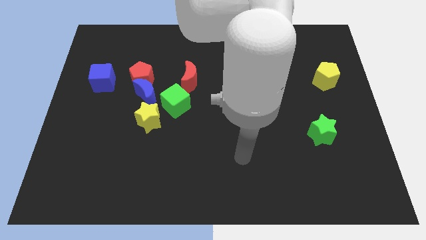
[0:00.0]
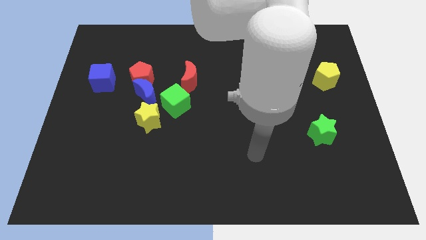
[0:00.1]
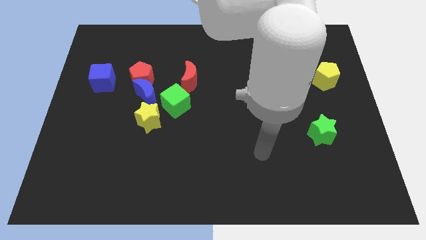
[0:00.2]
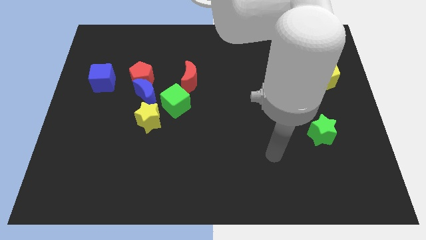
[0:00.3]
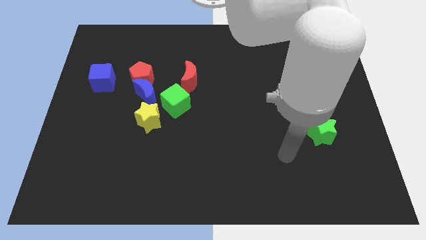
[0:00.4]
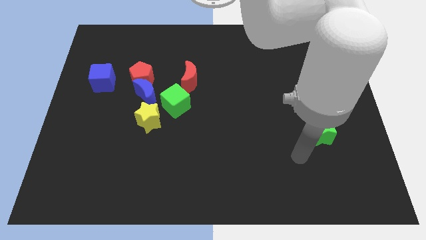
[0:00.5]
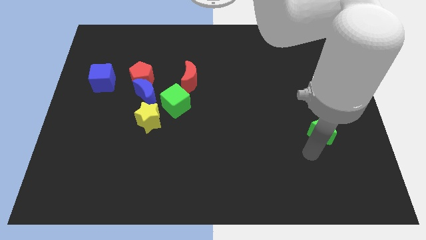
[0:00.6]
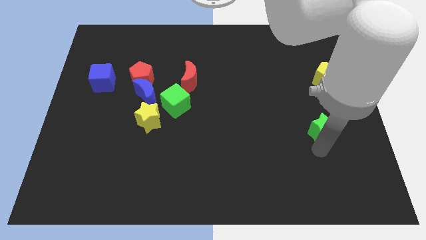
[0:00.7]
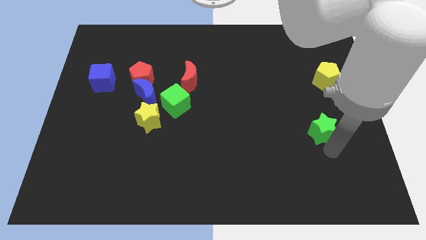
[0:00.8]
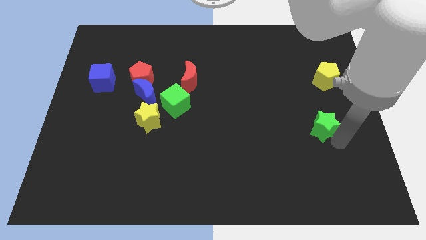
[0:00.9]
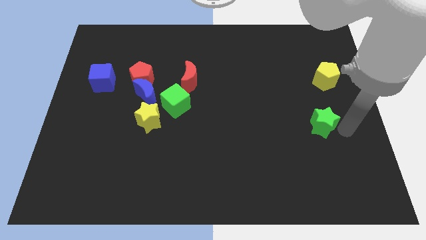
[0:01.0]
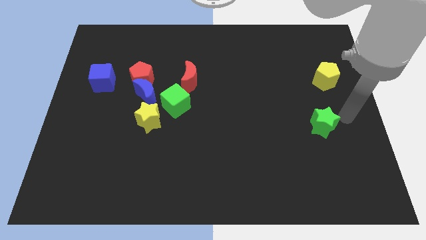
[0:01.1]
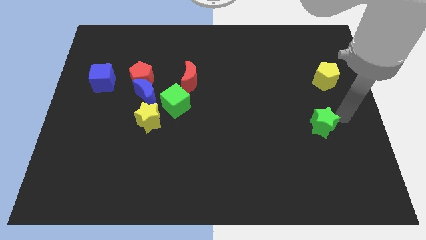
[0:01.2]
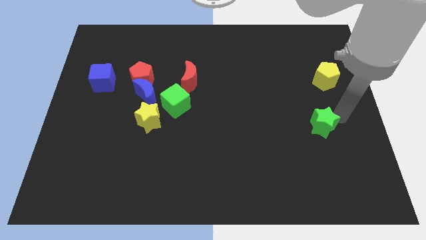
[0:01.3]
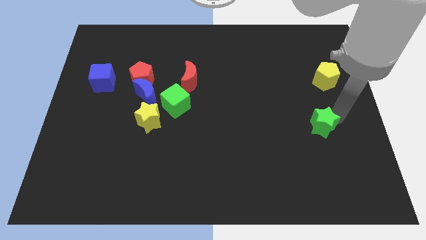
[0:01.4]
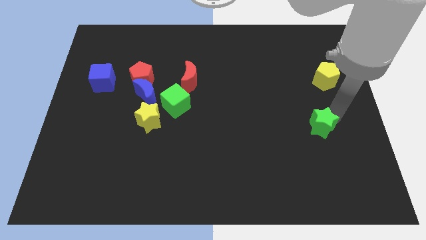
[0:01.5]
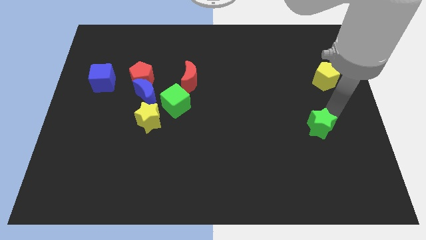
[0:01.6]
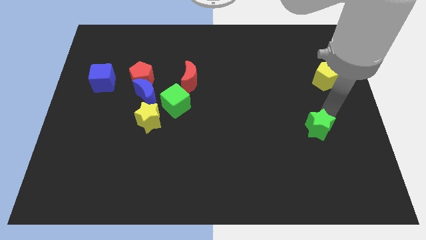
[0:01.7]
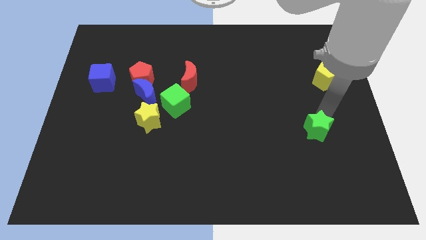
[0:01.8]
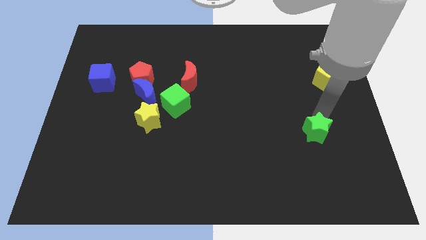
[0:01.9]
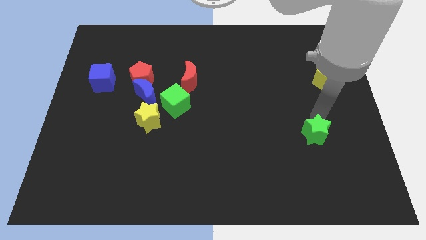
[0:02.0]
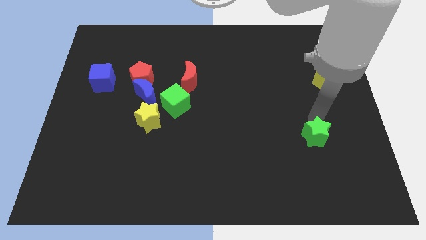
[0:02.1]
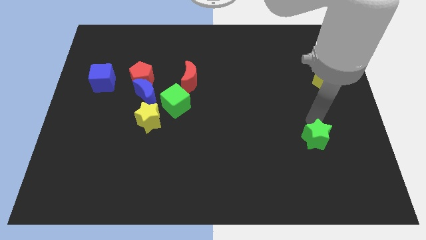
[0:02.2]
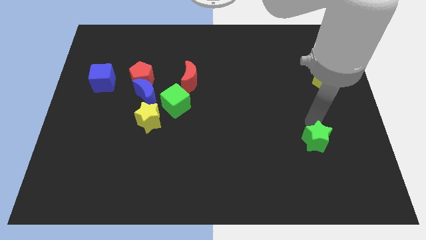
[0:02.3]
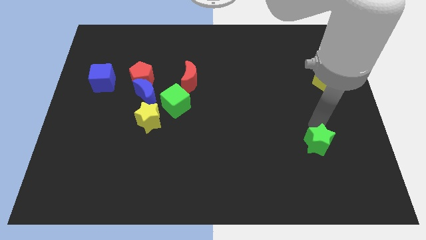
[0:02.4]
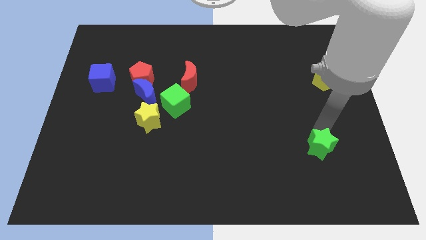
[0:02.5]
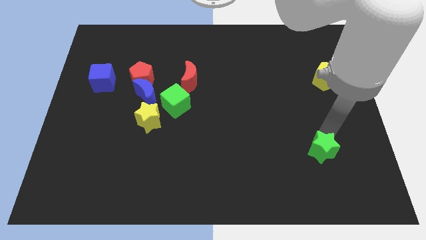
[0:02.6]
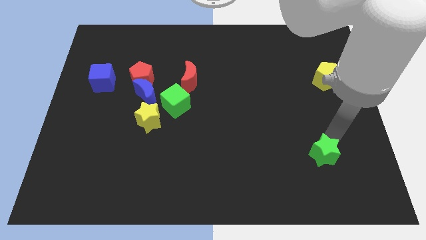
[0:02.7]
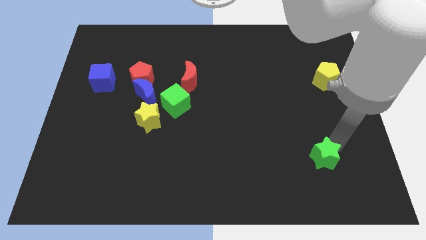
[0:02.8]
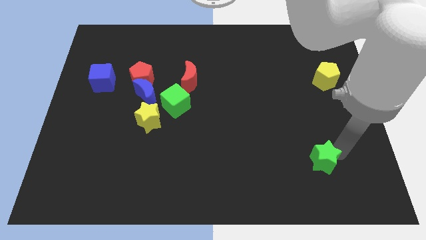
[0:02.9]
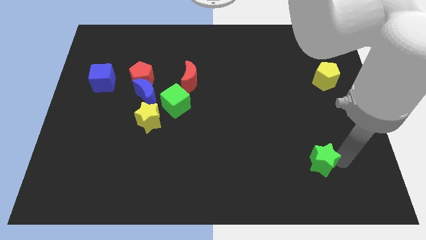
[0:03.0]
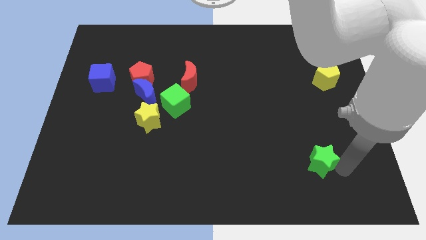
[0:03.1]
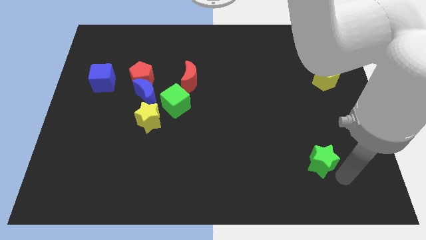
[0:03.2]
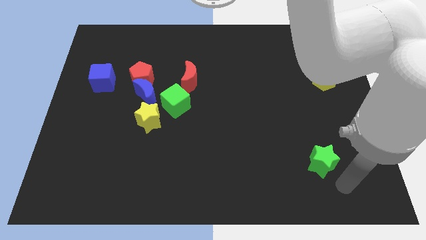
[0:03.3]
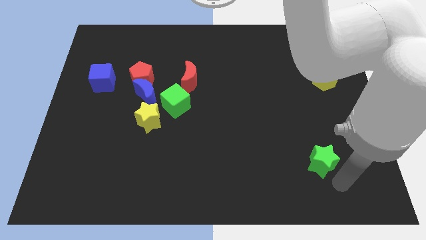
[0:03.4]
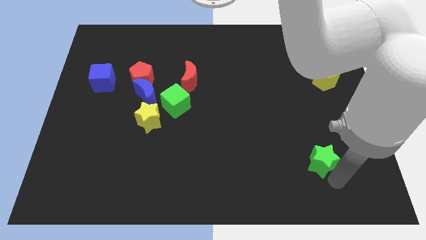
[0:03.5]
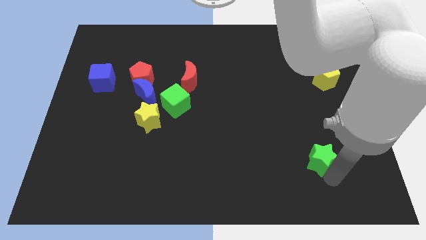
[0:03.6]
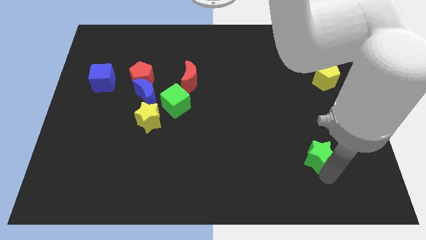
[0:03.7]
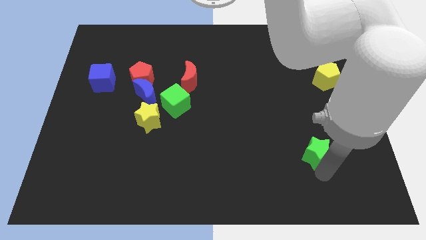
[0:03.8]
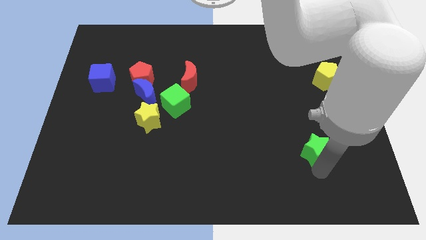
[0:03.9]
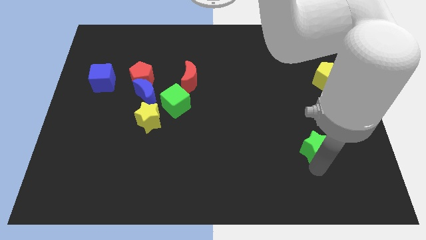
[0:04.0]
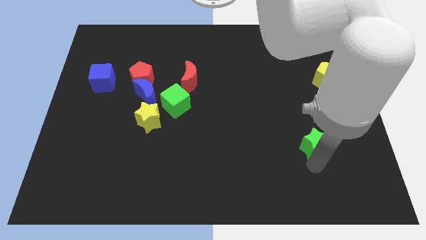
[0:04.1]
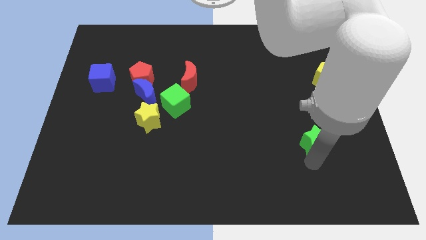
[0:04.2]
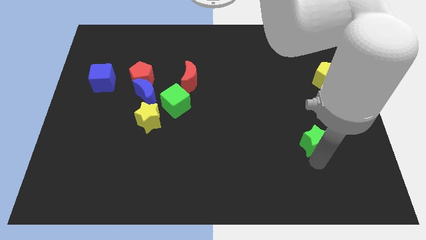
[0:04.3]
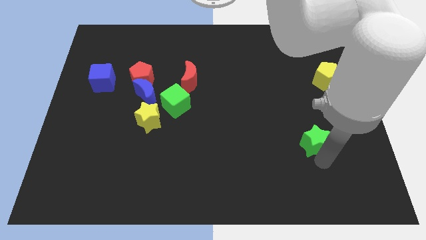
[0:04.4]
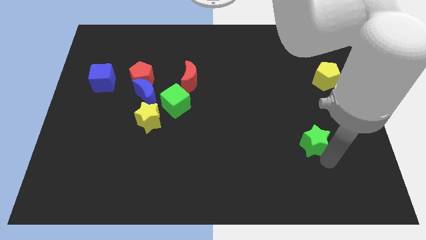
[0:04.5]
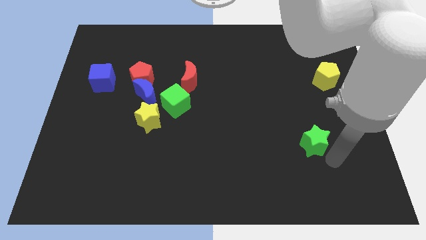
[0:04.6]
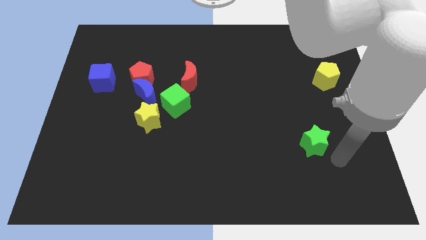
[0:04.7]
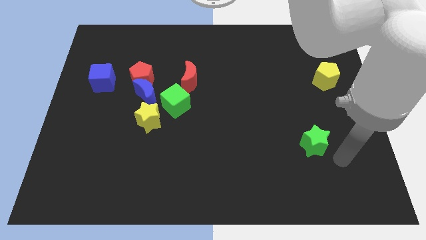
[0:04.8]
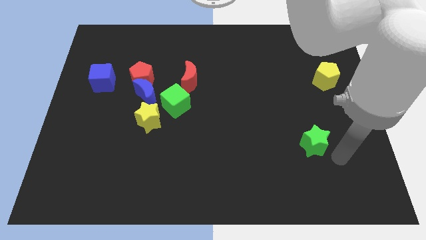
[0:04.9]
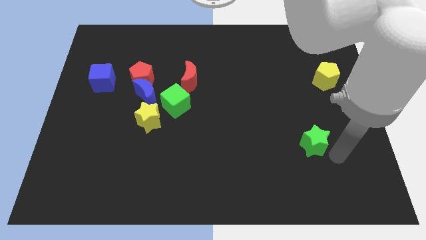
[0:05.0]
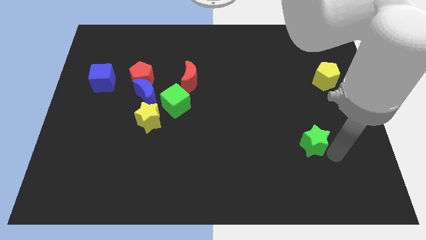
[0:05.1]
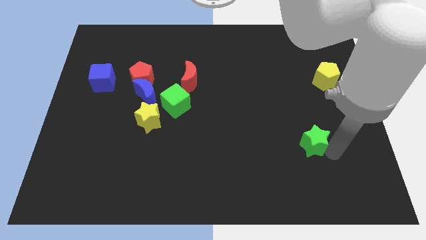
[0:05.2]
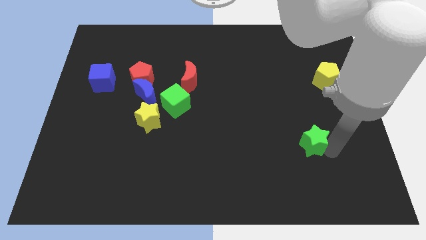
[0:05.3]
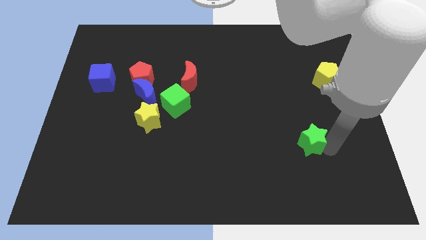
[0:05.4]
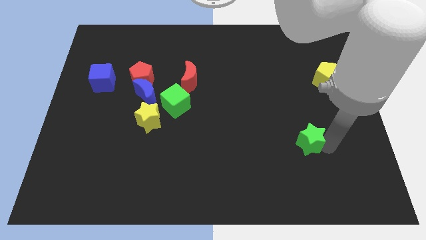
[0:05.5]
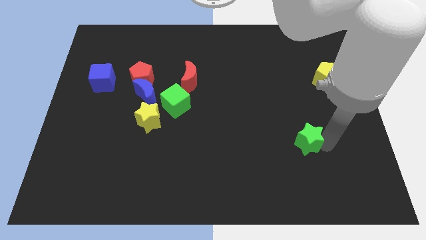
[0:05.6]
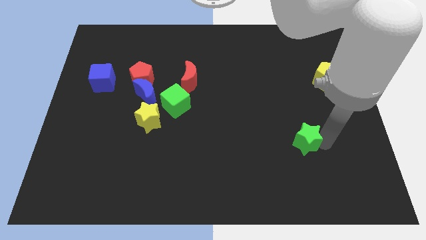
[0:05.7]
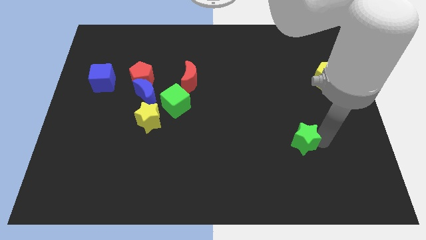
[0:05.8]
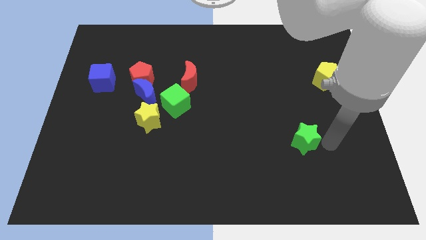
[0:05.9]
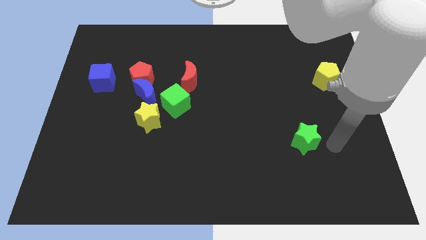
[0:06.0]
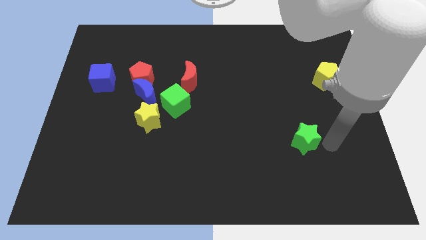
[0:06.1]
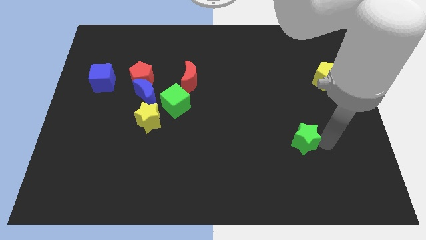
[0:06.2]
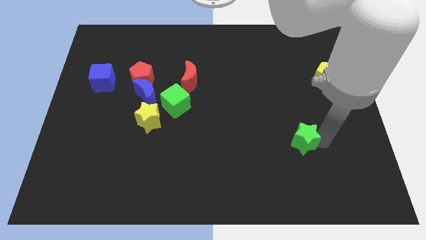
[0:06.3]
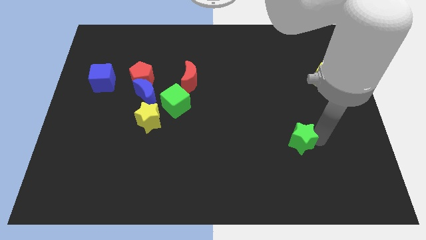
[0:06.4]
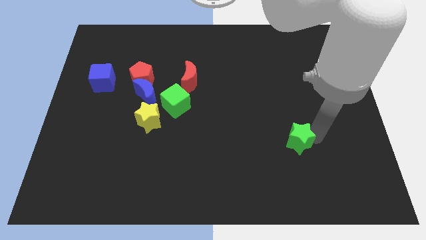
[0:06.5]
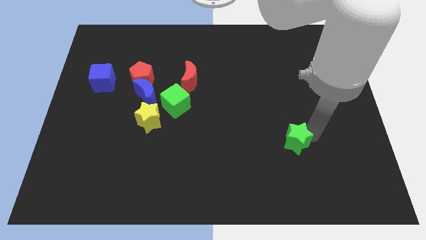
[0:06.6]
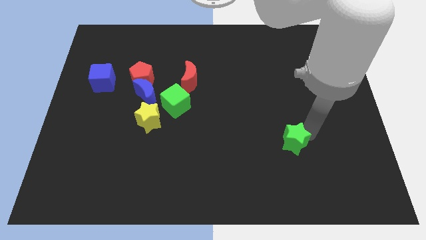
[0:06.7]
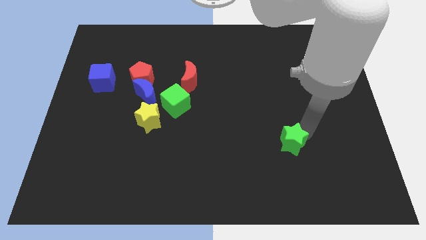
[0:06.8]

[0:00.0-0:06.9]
push the green star left slightly

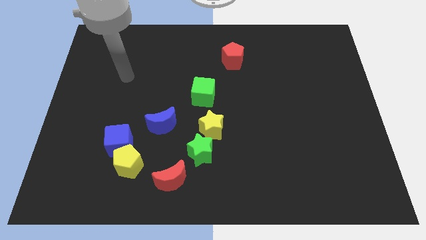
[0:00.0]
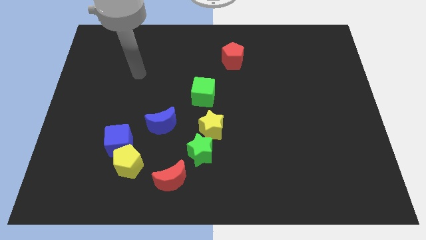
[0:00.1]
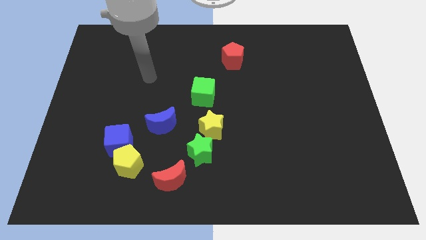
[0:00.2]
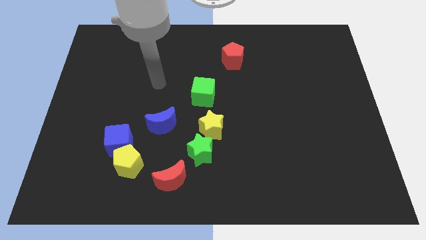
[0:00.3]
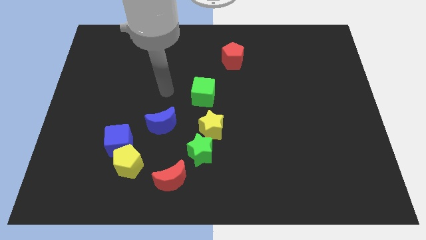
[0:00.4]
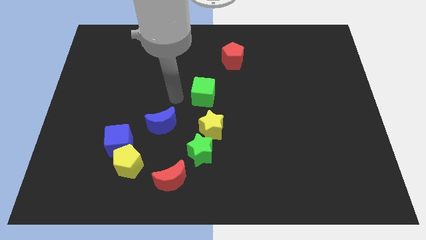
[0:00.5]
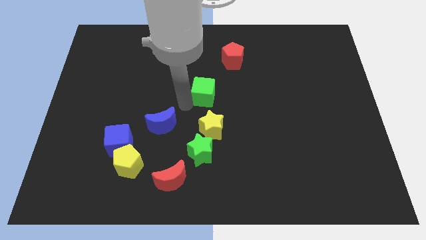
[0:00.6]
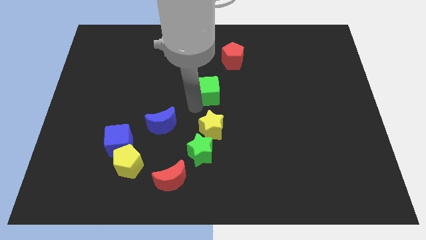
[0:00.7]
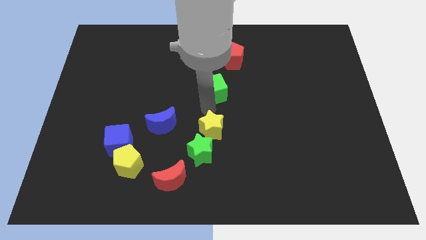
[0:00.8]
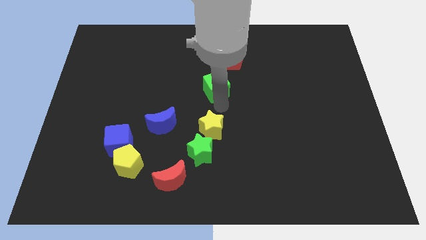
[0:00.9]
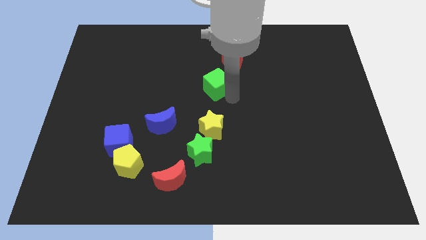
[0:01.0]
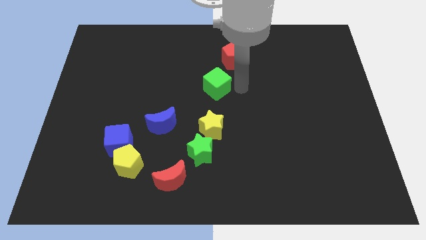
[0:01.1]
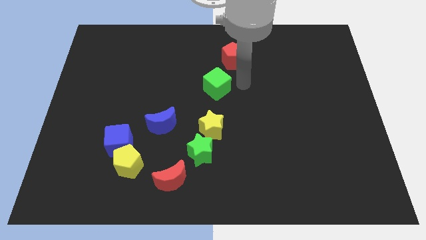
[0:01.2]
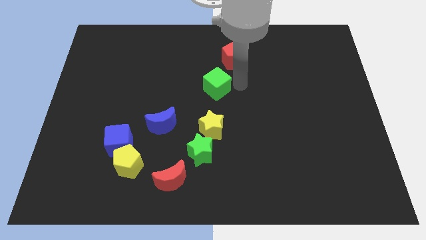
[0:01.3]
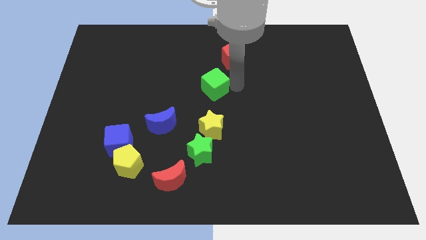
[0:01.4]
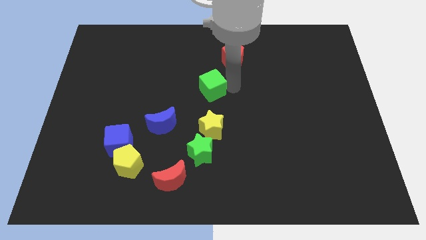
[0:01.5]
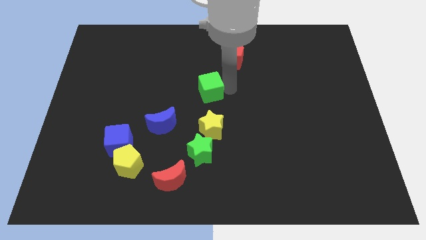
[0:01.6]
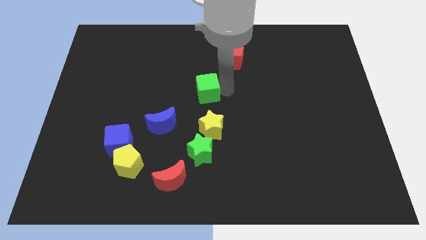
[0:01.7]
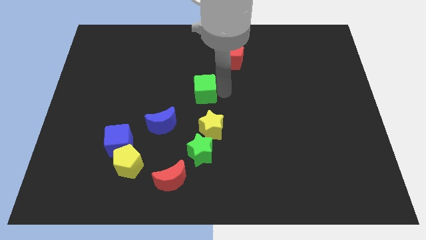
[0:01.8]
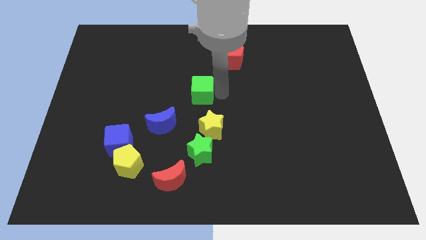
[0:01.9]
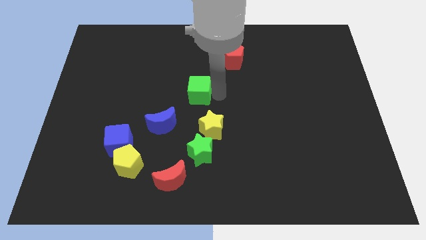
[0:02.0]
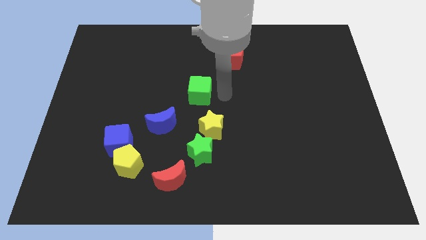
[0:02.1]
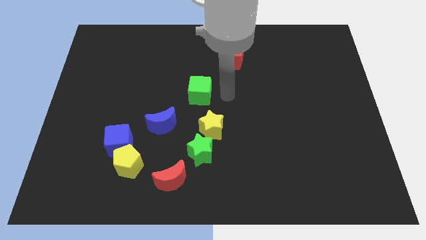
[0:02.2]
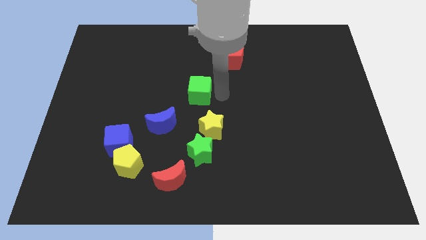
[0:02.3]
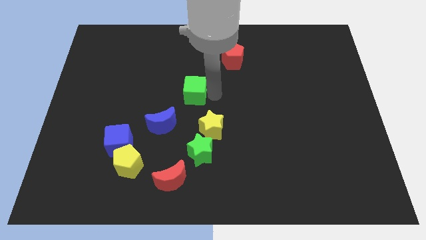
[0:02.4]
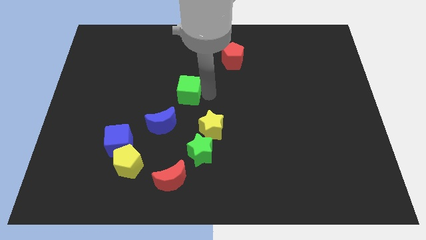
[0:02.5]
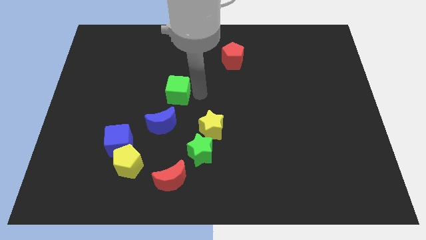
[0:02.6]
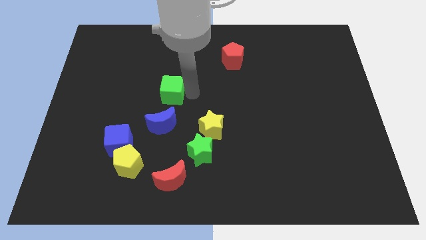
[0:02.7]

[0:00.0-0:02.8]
slide the green cube slightly left
